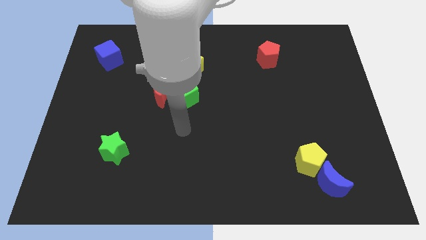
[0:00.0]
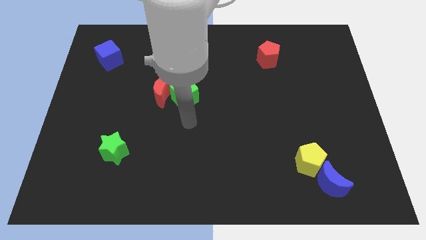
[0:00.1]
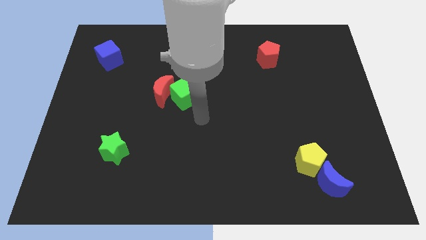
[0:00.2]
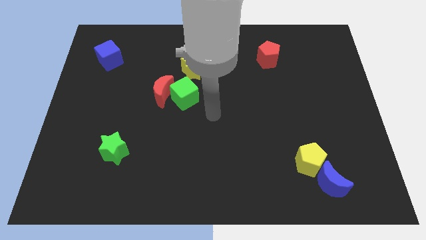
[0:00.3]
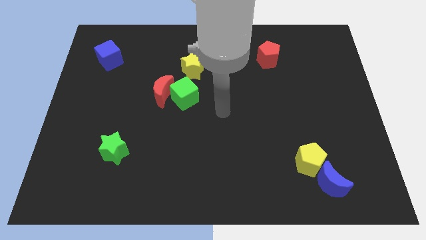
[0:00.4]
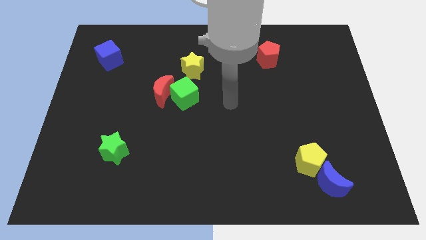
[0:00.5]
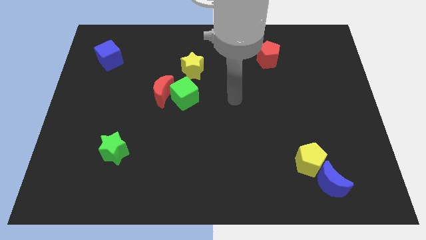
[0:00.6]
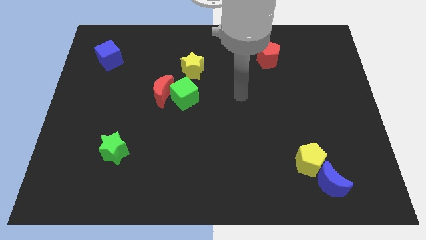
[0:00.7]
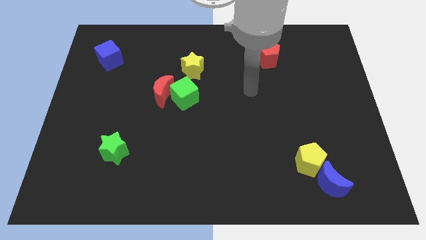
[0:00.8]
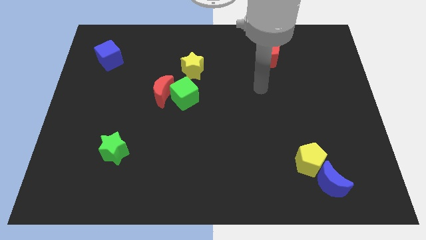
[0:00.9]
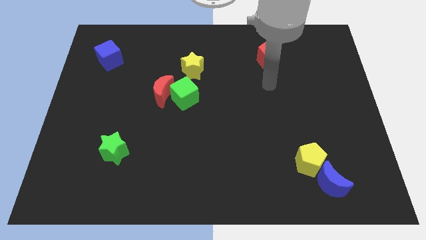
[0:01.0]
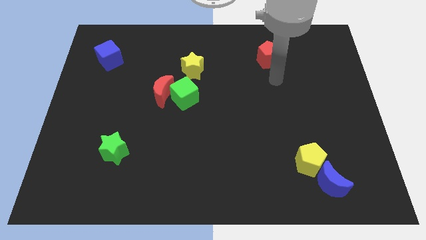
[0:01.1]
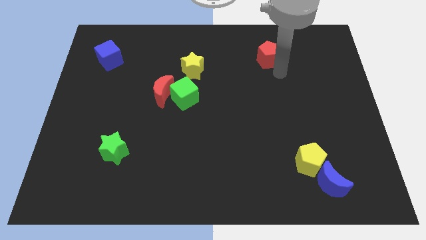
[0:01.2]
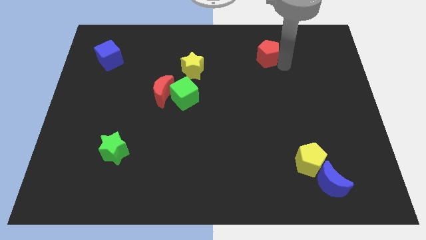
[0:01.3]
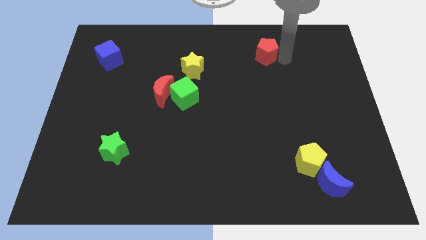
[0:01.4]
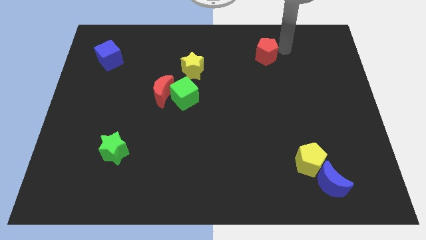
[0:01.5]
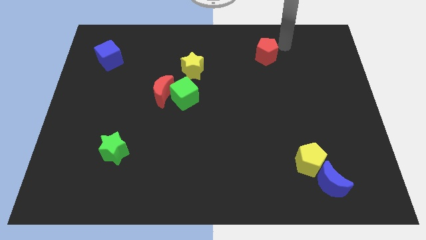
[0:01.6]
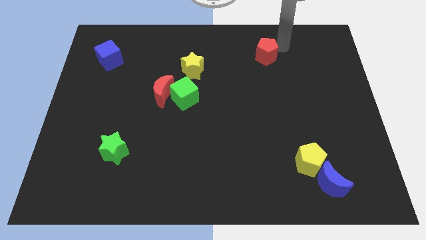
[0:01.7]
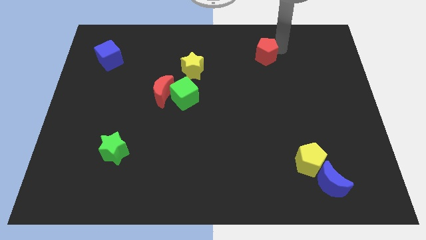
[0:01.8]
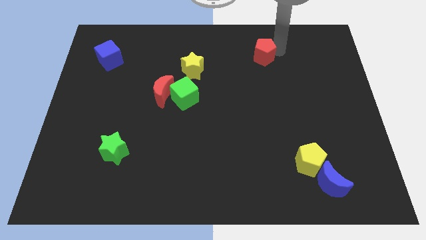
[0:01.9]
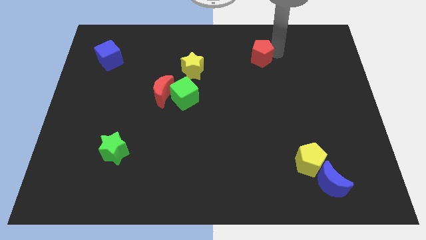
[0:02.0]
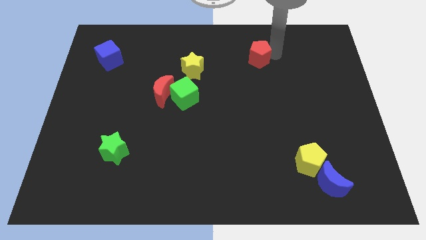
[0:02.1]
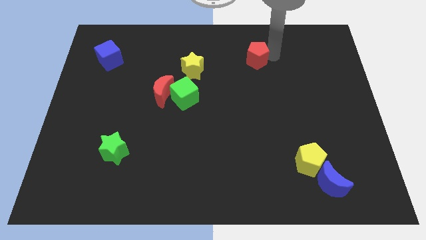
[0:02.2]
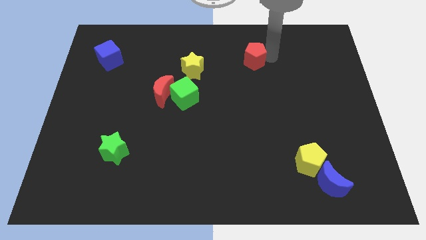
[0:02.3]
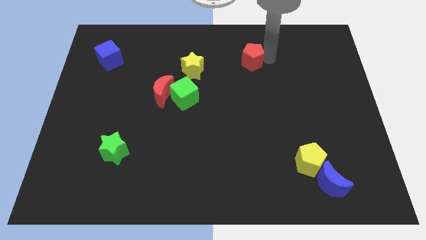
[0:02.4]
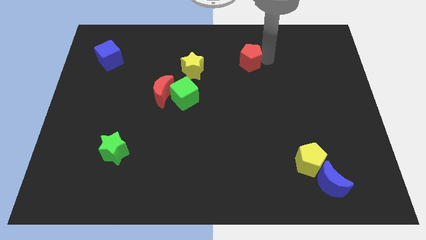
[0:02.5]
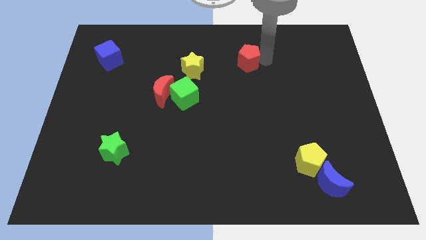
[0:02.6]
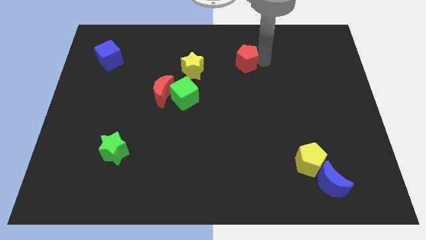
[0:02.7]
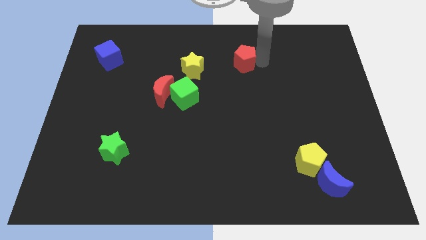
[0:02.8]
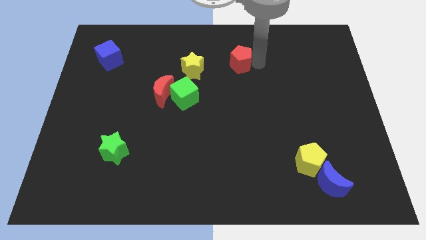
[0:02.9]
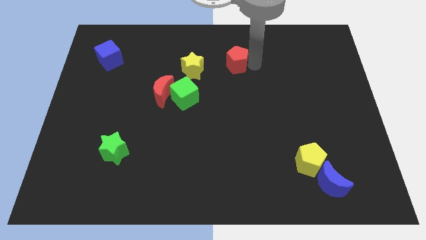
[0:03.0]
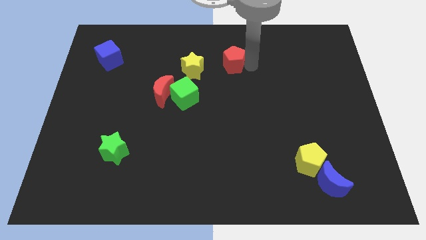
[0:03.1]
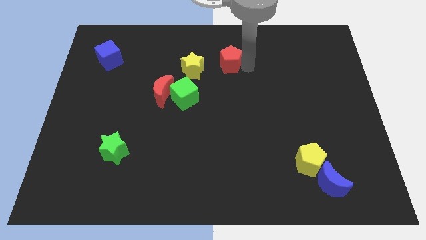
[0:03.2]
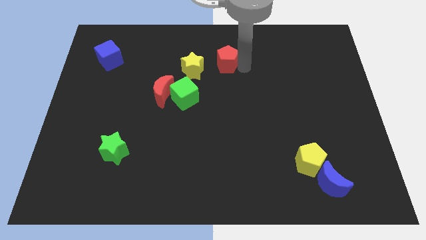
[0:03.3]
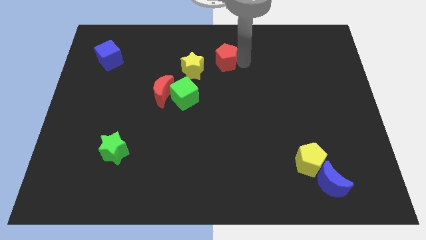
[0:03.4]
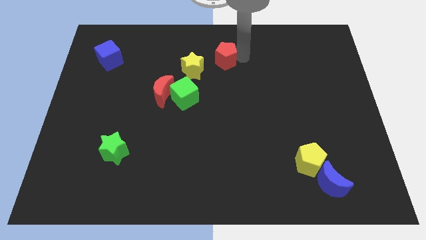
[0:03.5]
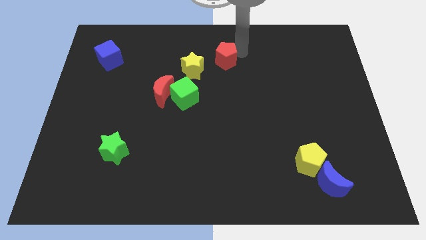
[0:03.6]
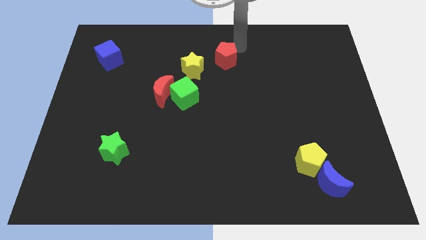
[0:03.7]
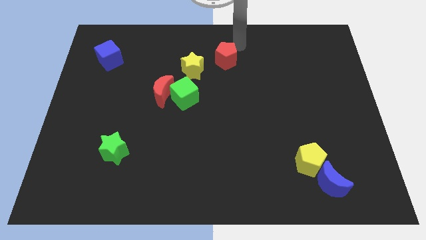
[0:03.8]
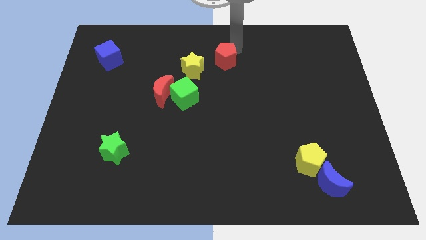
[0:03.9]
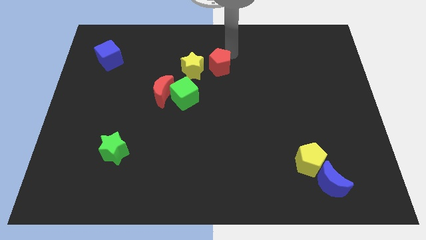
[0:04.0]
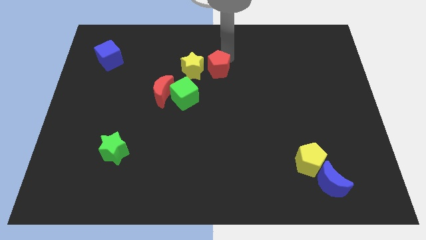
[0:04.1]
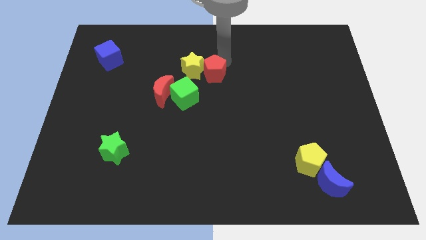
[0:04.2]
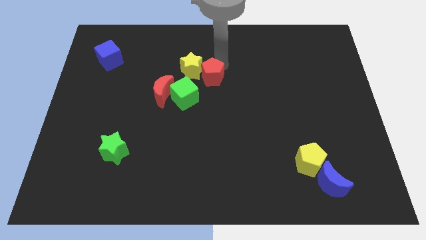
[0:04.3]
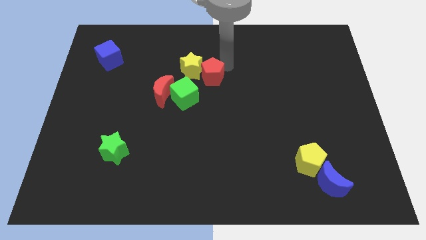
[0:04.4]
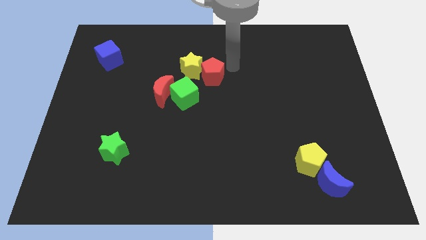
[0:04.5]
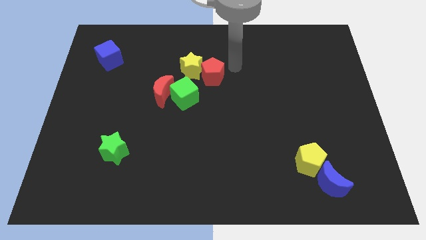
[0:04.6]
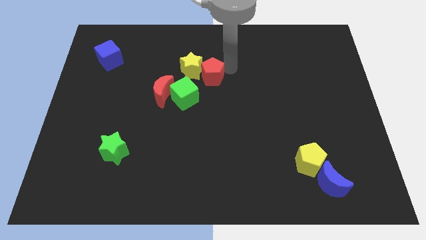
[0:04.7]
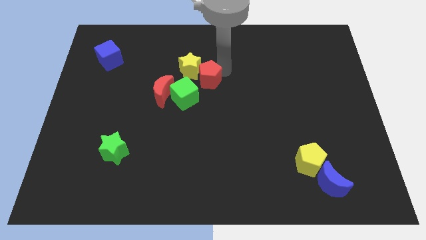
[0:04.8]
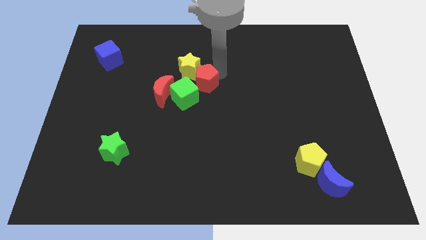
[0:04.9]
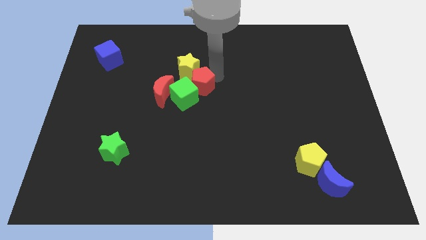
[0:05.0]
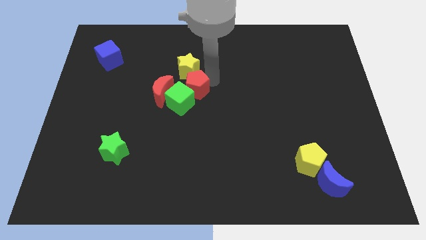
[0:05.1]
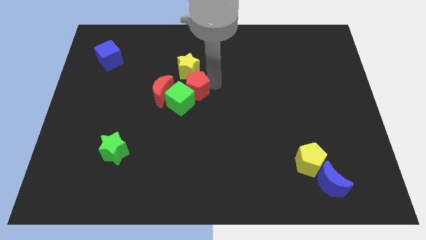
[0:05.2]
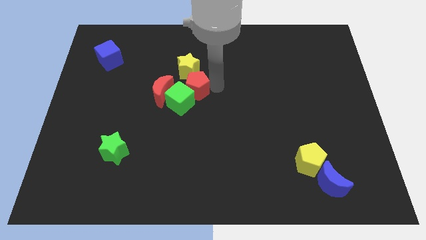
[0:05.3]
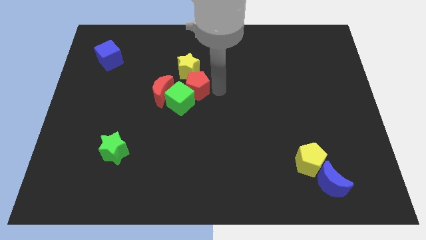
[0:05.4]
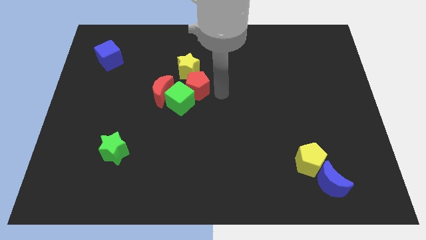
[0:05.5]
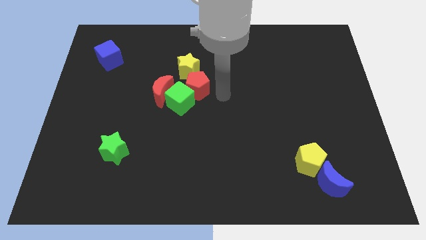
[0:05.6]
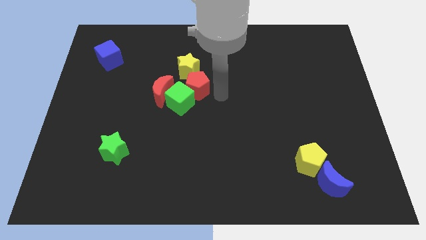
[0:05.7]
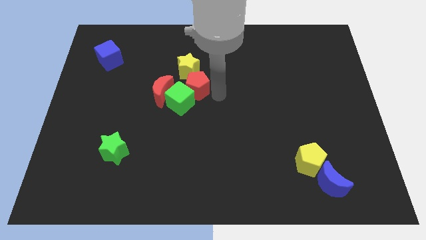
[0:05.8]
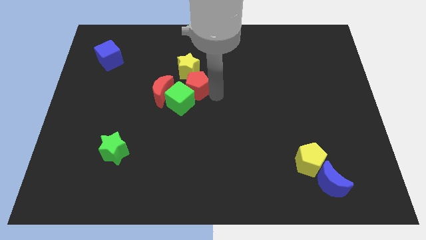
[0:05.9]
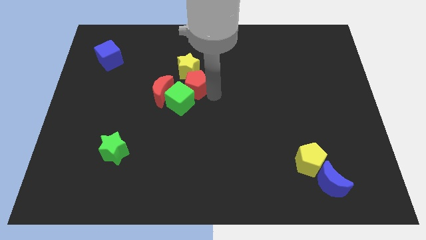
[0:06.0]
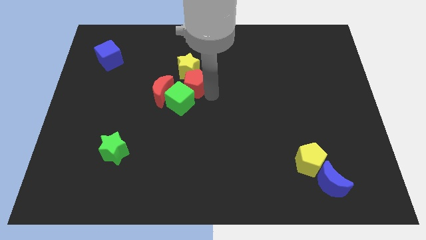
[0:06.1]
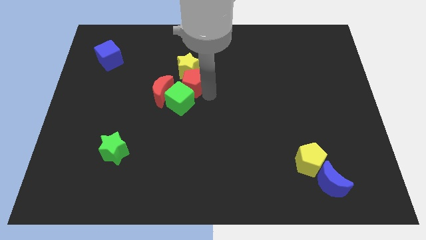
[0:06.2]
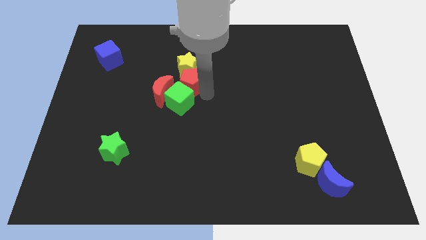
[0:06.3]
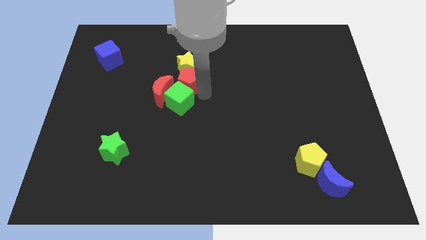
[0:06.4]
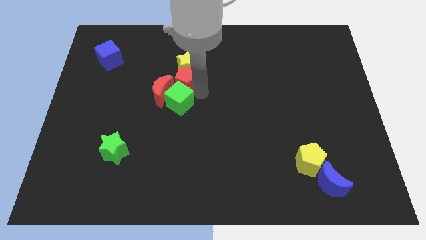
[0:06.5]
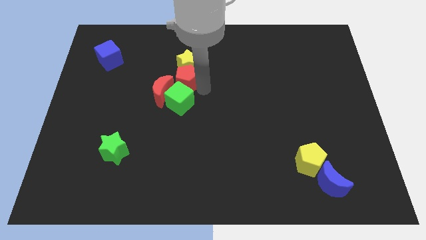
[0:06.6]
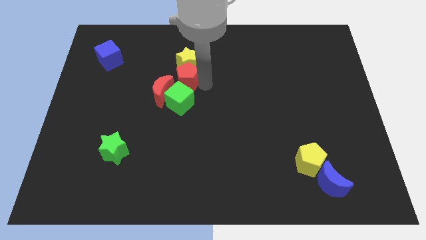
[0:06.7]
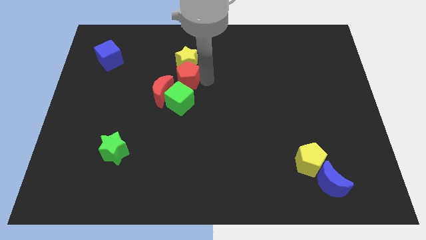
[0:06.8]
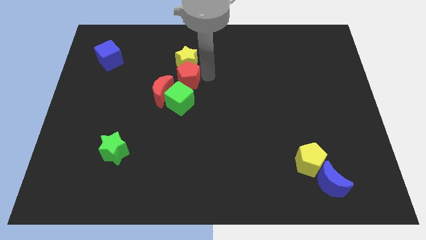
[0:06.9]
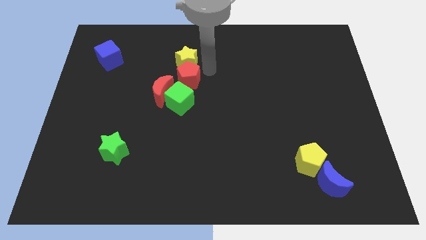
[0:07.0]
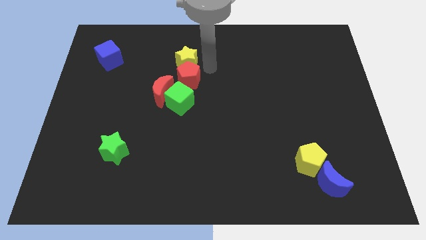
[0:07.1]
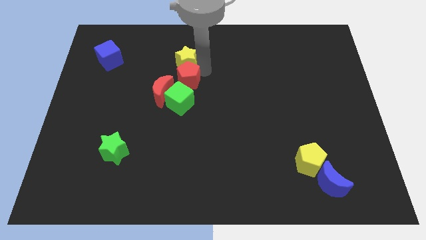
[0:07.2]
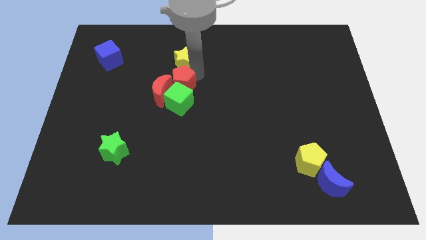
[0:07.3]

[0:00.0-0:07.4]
push the red pentagon close to the red moon
